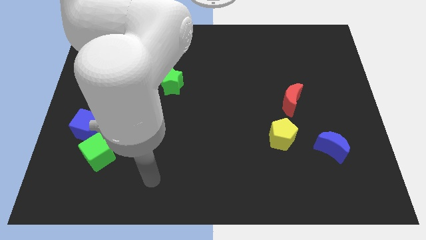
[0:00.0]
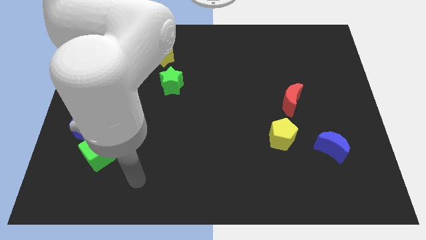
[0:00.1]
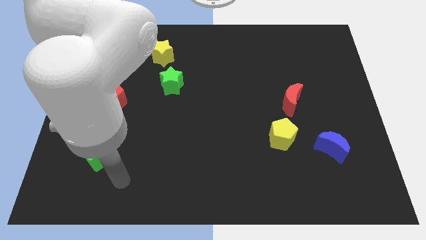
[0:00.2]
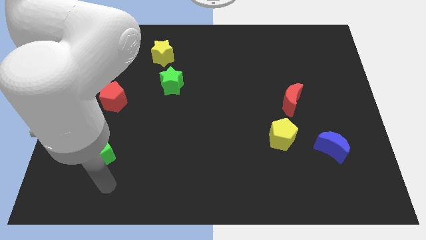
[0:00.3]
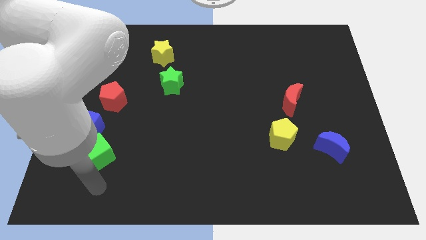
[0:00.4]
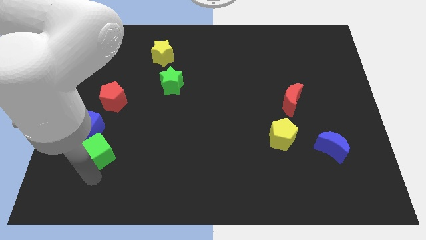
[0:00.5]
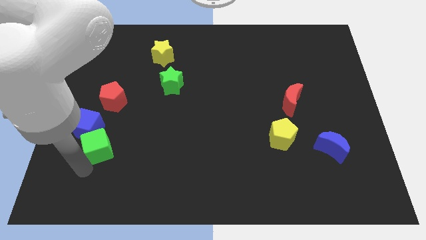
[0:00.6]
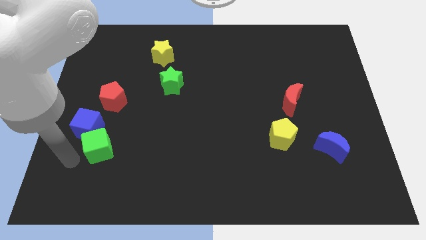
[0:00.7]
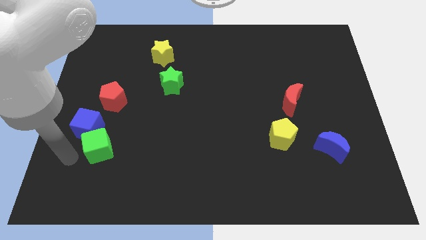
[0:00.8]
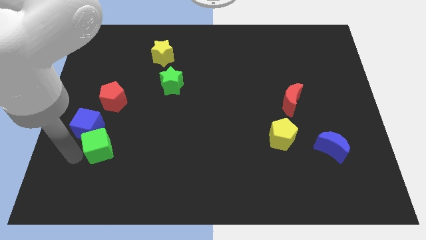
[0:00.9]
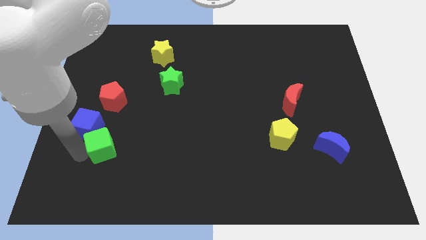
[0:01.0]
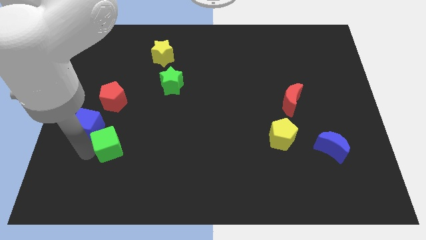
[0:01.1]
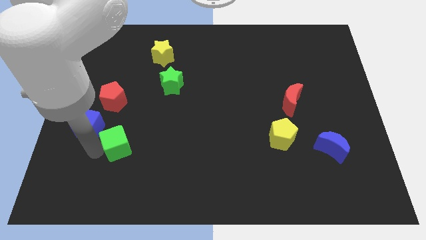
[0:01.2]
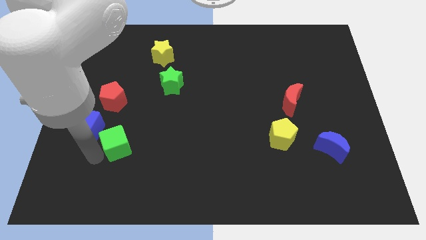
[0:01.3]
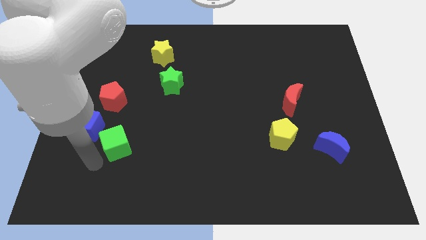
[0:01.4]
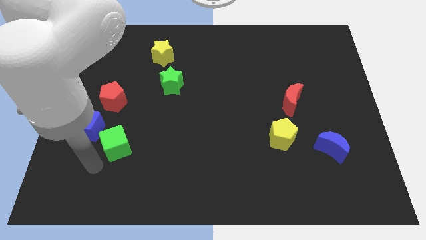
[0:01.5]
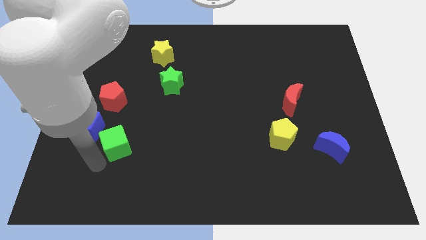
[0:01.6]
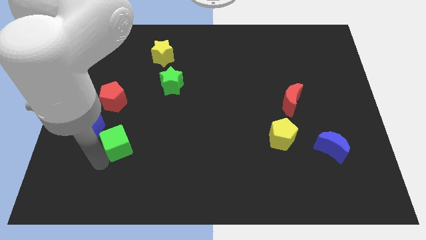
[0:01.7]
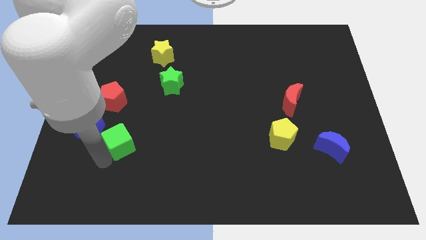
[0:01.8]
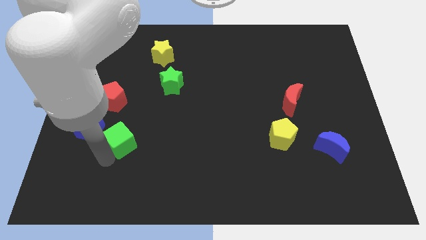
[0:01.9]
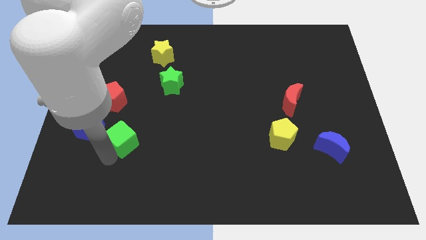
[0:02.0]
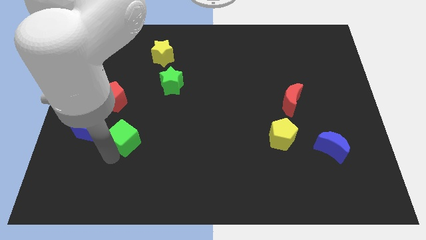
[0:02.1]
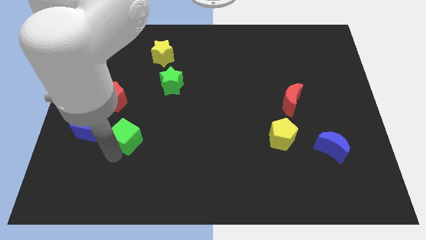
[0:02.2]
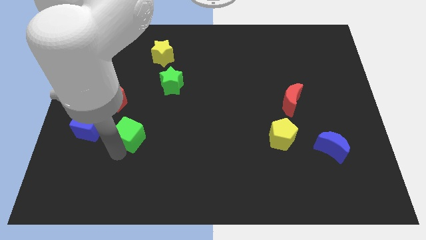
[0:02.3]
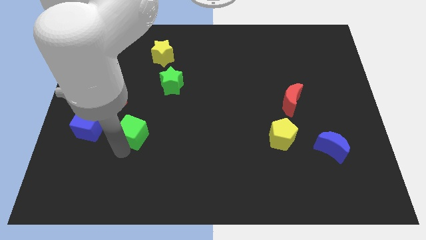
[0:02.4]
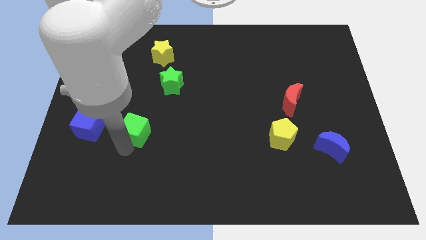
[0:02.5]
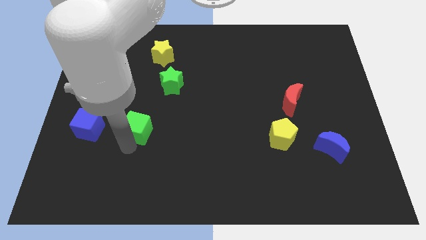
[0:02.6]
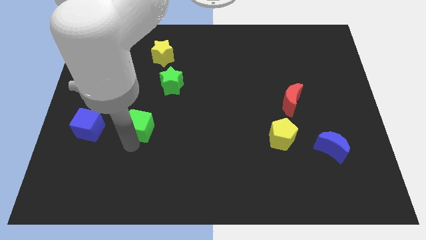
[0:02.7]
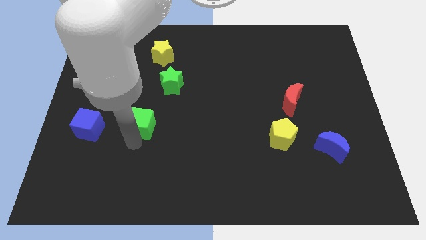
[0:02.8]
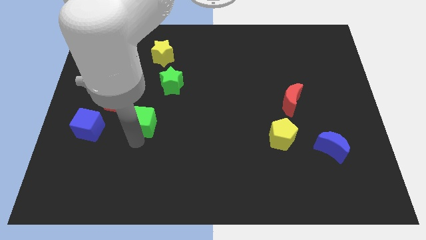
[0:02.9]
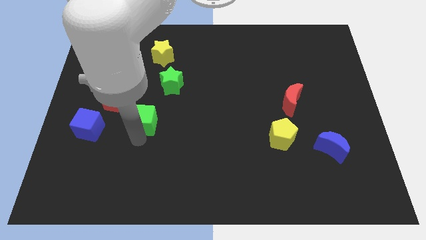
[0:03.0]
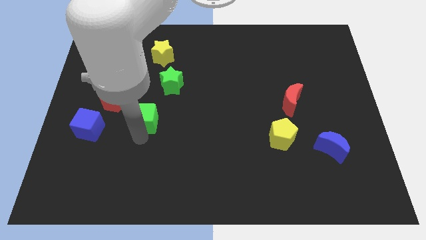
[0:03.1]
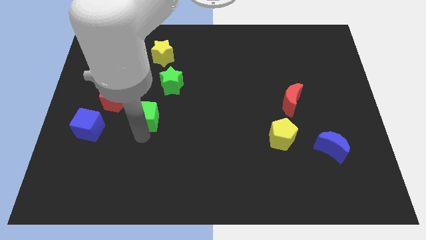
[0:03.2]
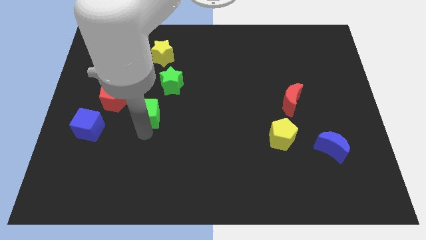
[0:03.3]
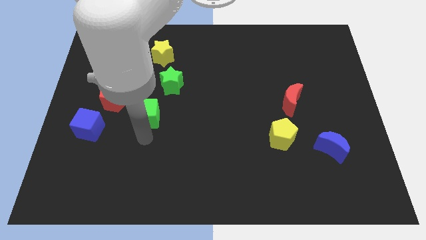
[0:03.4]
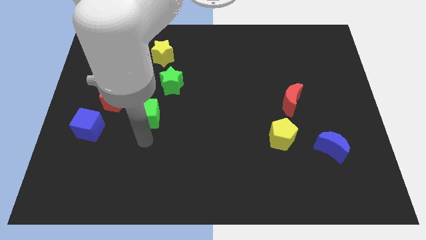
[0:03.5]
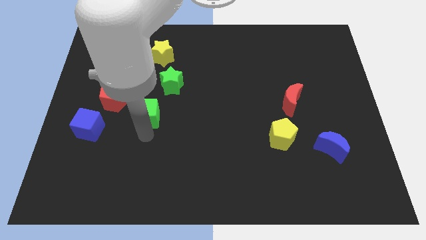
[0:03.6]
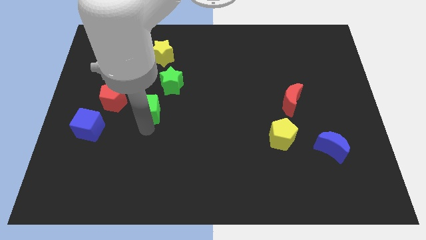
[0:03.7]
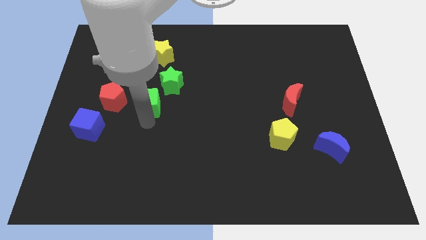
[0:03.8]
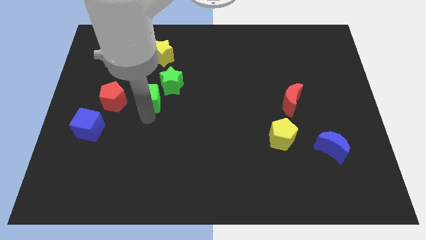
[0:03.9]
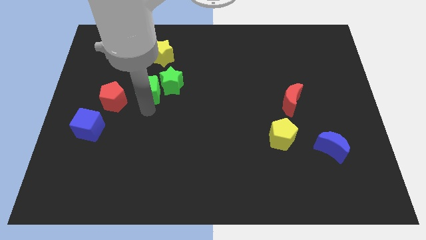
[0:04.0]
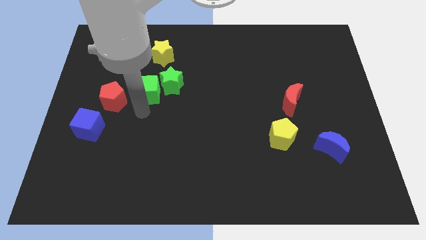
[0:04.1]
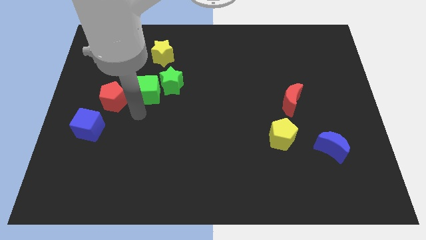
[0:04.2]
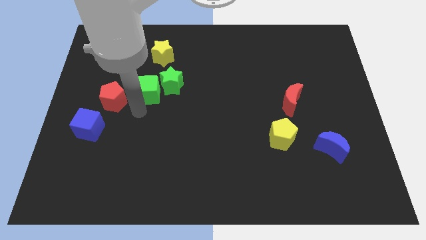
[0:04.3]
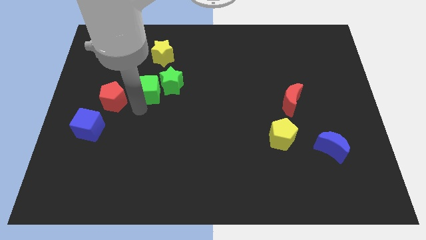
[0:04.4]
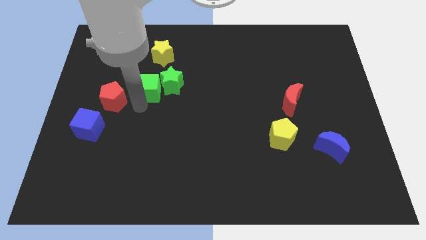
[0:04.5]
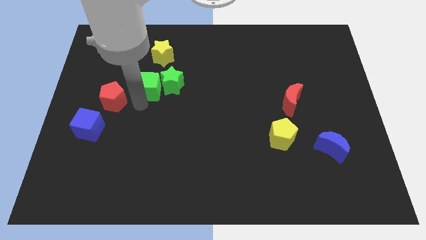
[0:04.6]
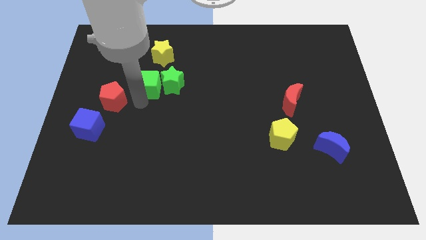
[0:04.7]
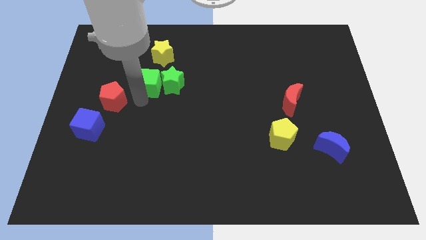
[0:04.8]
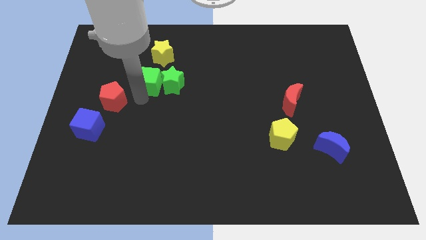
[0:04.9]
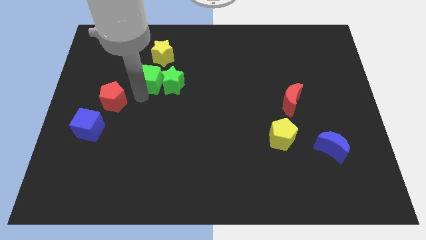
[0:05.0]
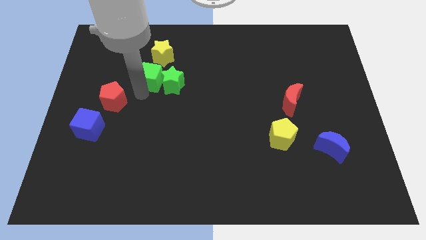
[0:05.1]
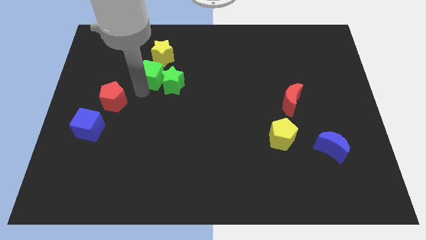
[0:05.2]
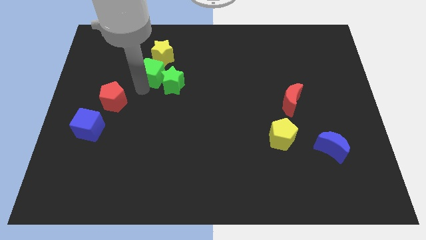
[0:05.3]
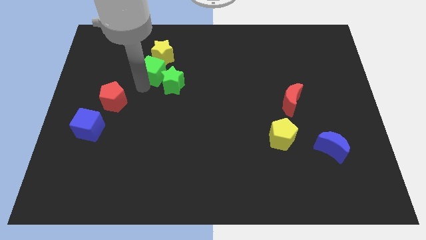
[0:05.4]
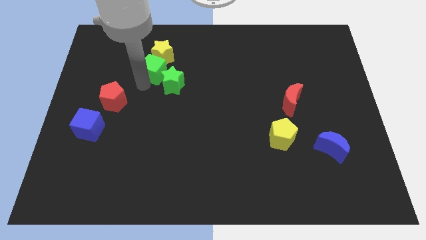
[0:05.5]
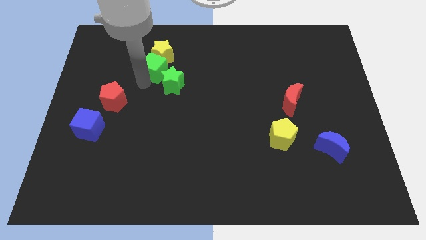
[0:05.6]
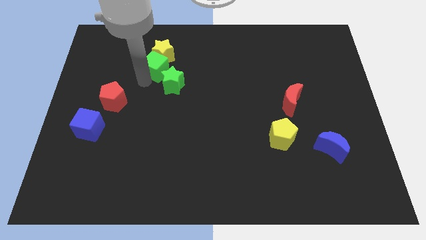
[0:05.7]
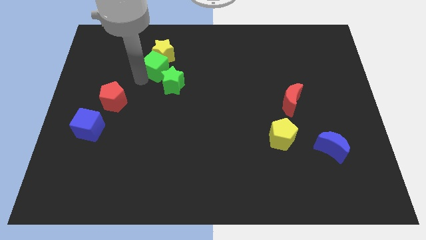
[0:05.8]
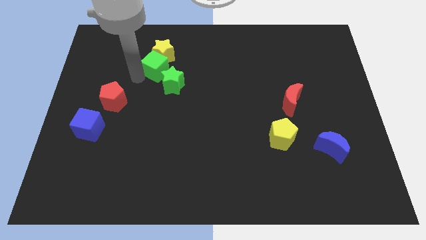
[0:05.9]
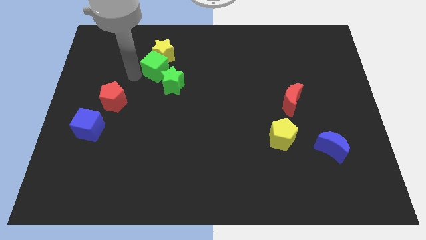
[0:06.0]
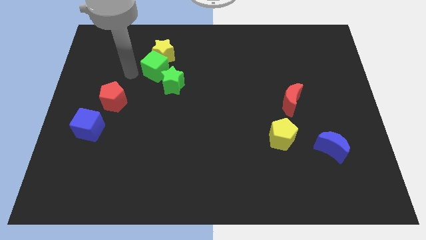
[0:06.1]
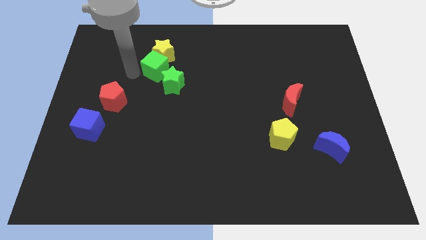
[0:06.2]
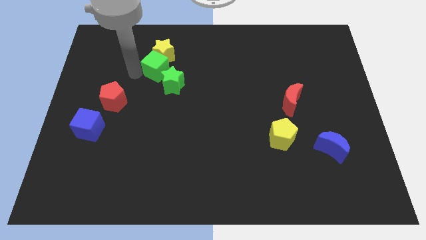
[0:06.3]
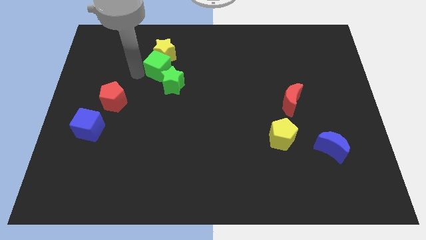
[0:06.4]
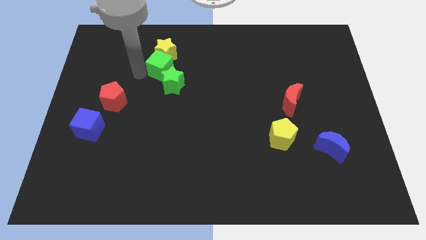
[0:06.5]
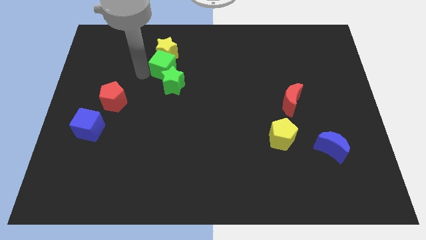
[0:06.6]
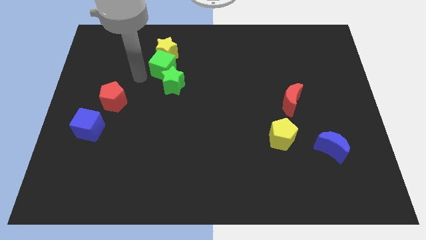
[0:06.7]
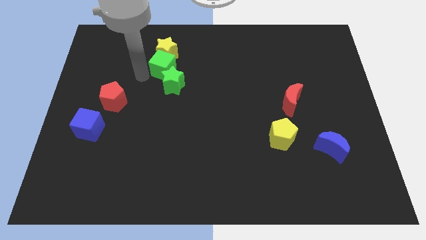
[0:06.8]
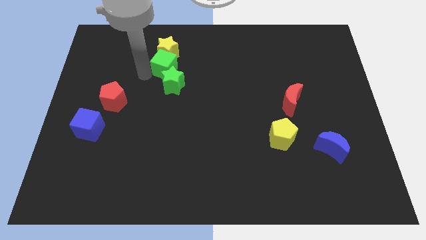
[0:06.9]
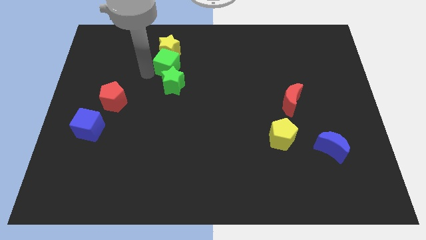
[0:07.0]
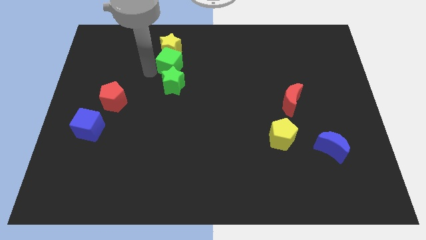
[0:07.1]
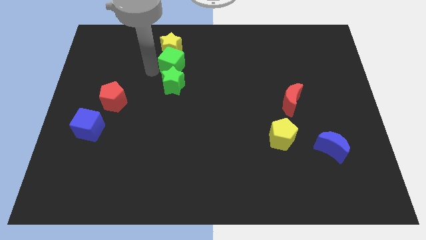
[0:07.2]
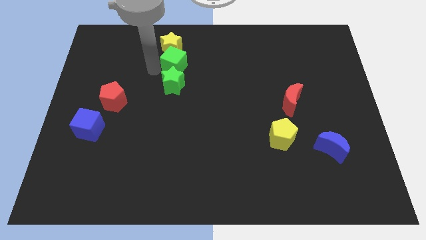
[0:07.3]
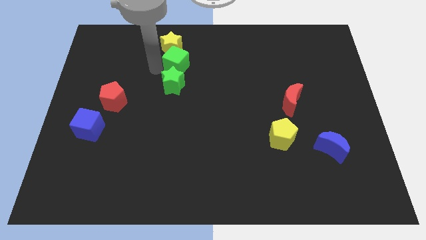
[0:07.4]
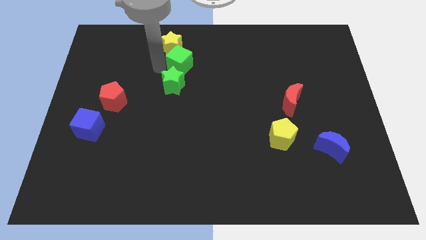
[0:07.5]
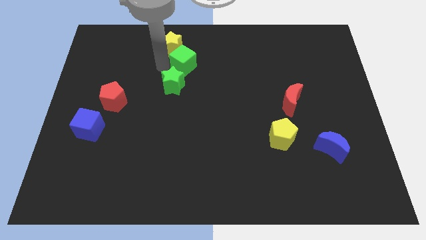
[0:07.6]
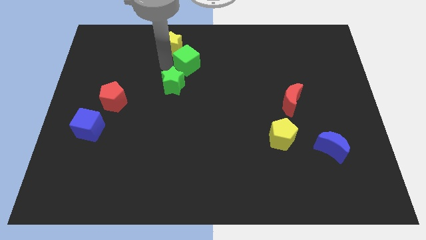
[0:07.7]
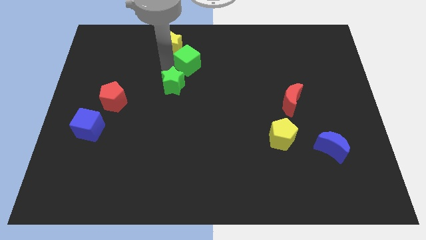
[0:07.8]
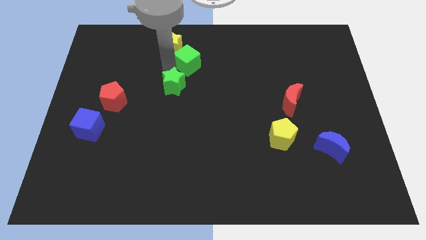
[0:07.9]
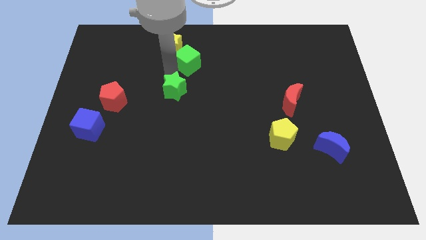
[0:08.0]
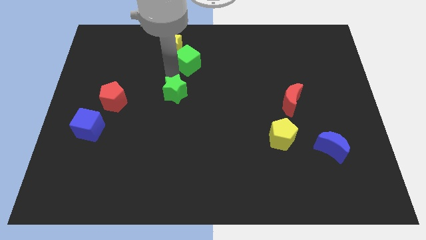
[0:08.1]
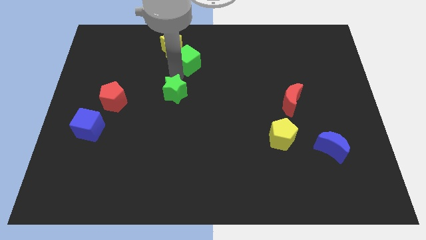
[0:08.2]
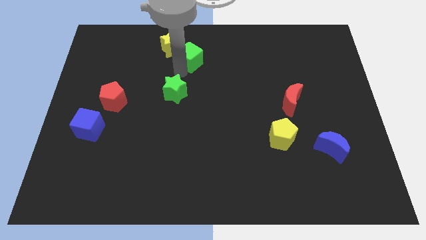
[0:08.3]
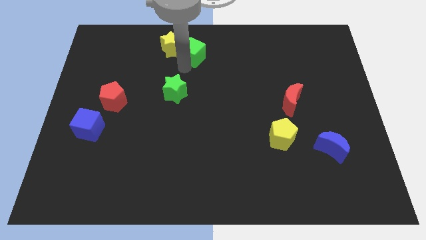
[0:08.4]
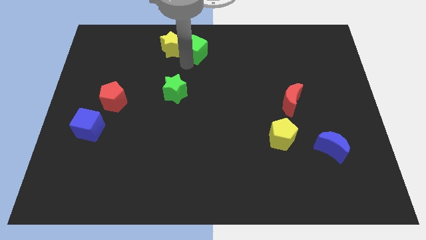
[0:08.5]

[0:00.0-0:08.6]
push the green cube to the top
